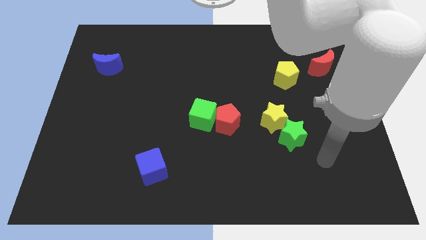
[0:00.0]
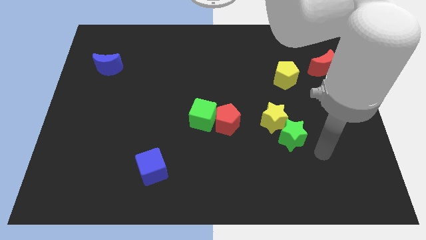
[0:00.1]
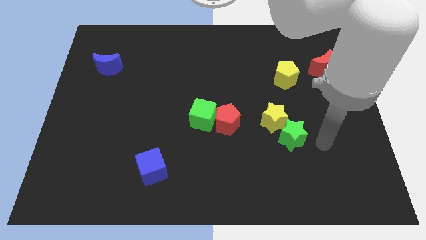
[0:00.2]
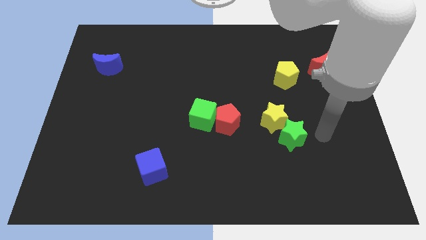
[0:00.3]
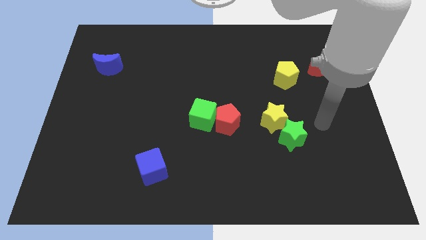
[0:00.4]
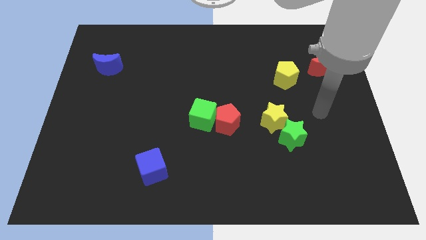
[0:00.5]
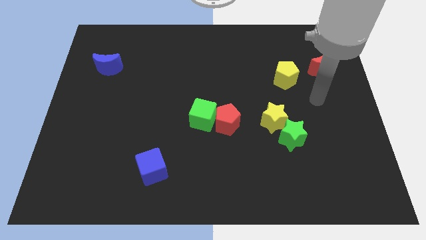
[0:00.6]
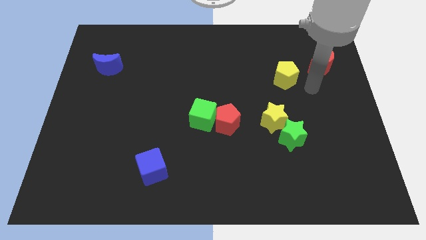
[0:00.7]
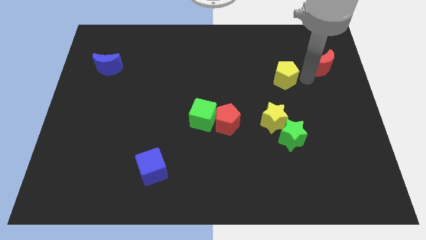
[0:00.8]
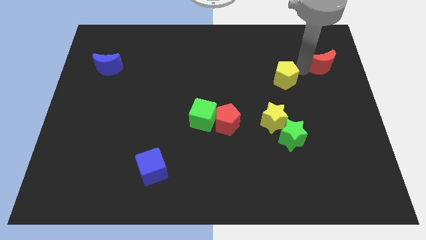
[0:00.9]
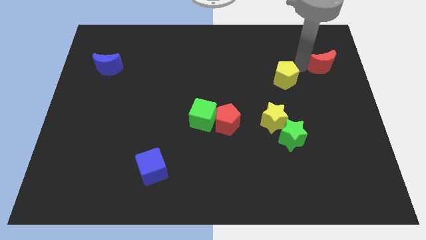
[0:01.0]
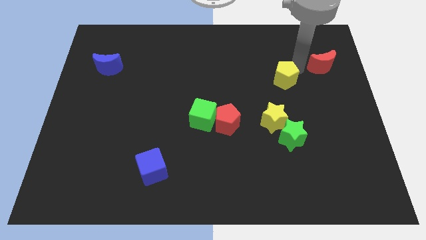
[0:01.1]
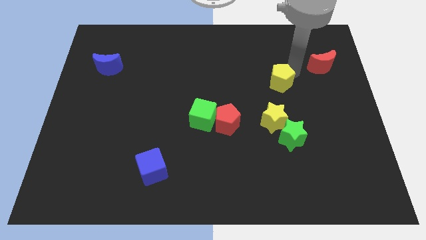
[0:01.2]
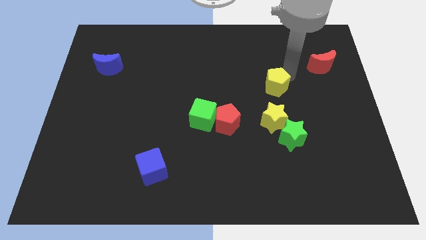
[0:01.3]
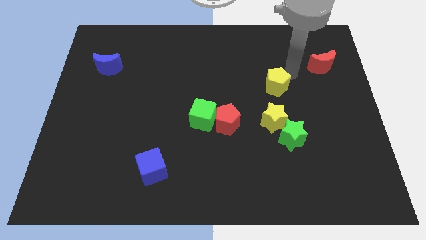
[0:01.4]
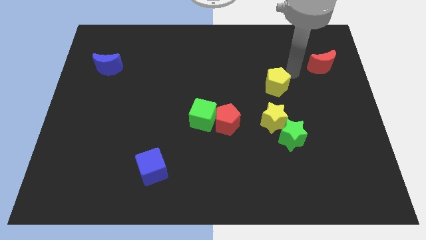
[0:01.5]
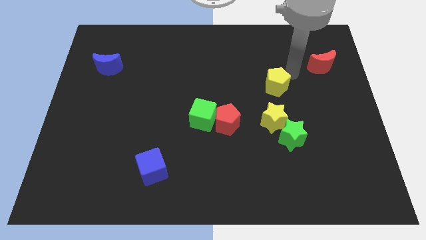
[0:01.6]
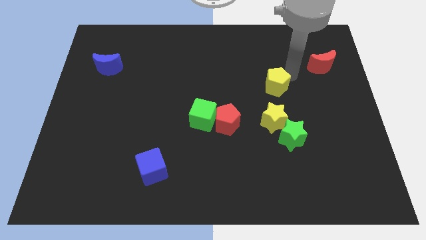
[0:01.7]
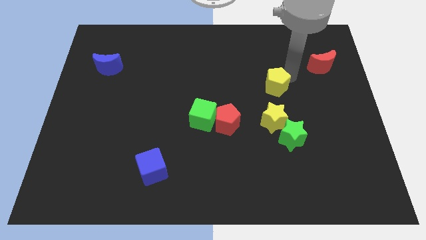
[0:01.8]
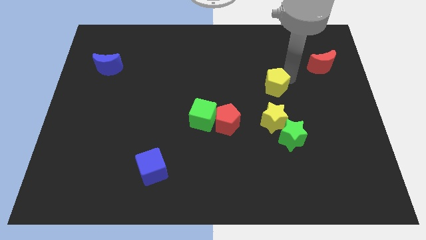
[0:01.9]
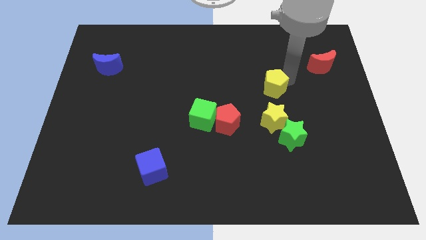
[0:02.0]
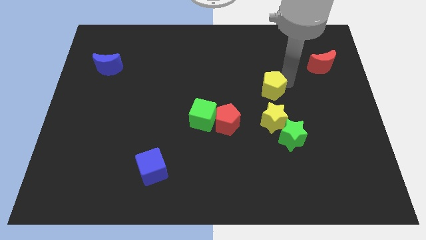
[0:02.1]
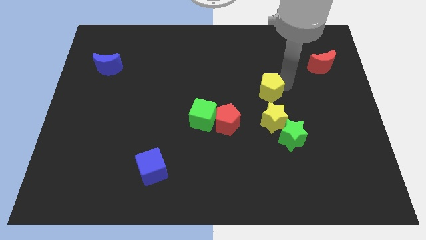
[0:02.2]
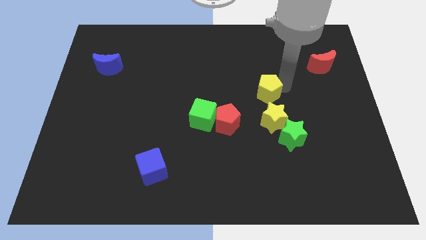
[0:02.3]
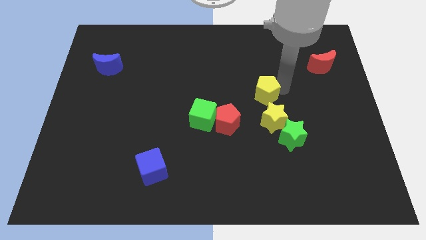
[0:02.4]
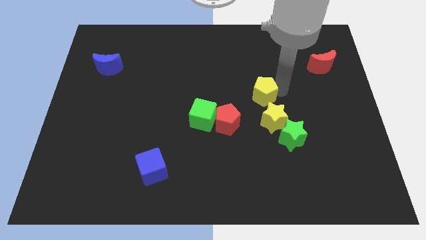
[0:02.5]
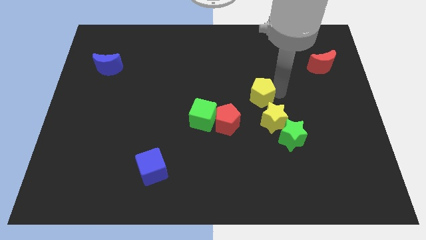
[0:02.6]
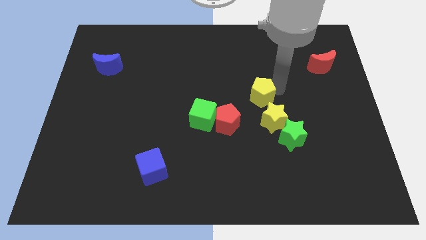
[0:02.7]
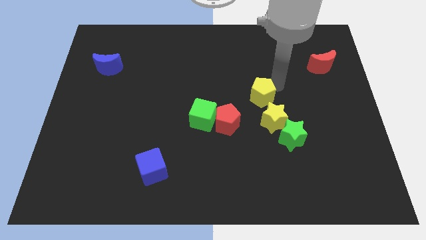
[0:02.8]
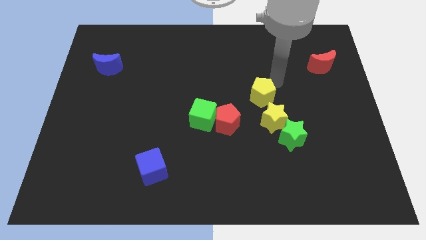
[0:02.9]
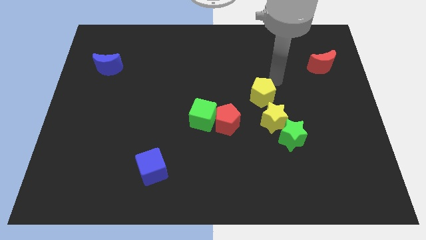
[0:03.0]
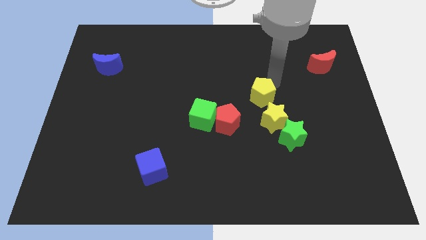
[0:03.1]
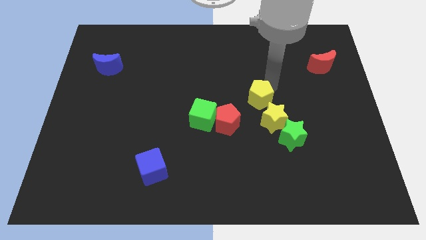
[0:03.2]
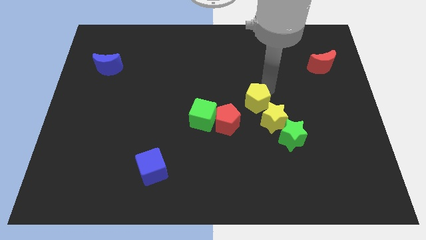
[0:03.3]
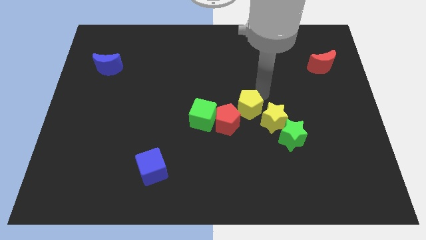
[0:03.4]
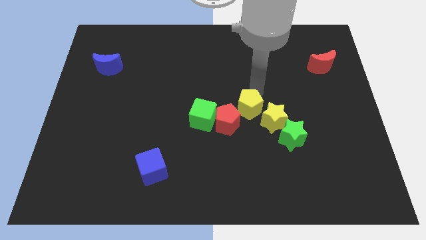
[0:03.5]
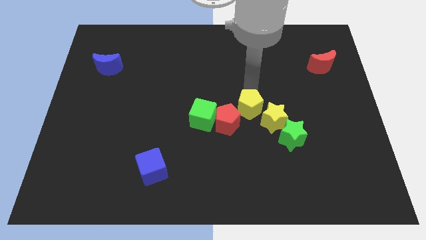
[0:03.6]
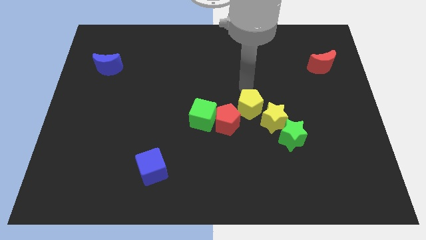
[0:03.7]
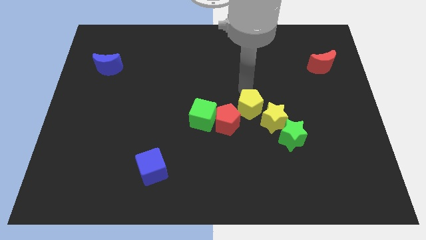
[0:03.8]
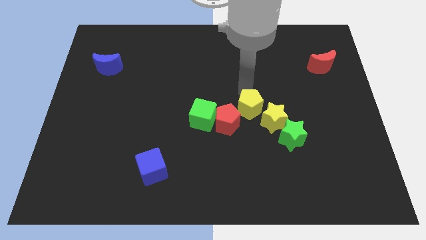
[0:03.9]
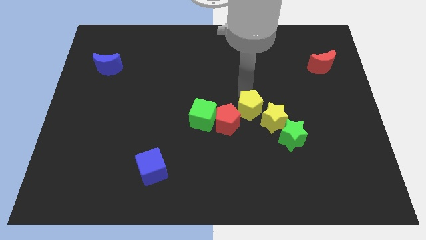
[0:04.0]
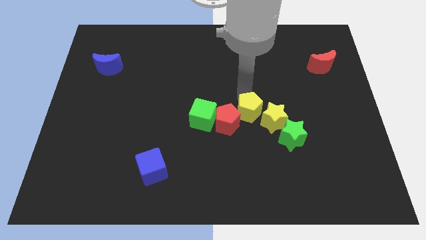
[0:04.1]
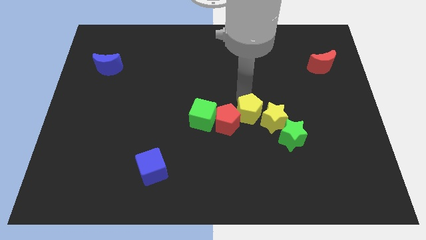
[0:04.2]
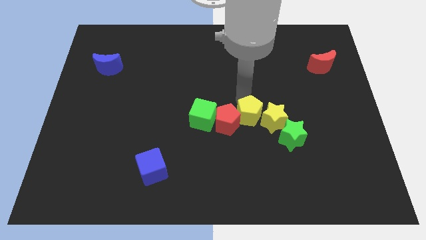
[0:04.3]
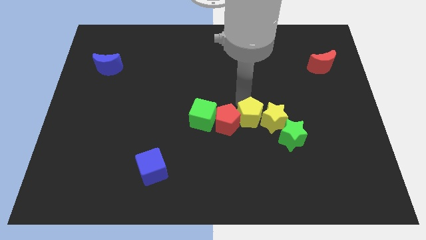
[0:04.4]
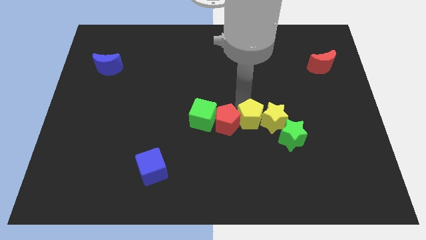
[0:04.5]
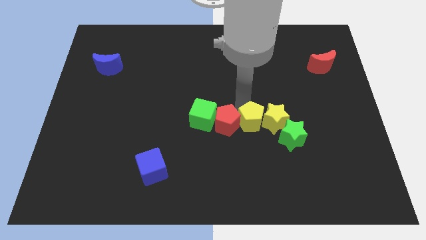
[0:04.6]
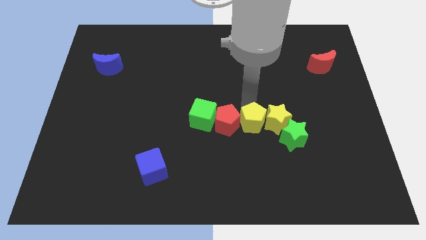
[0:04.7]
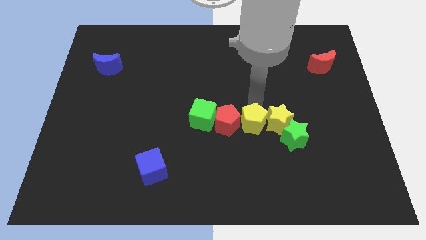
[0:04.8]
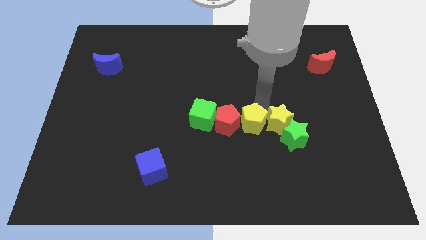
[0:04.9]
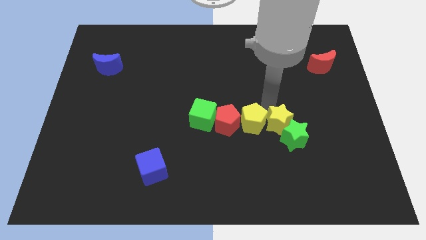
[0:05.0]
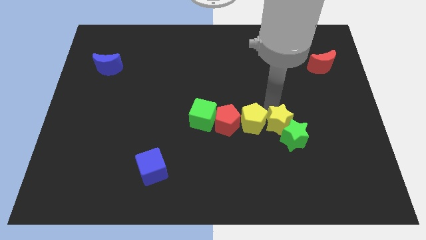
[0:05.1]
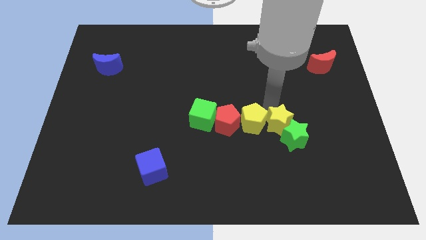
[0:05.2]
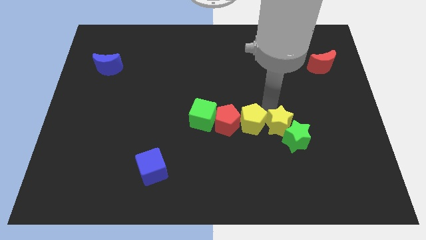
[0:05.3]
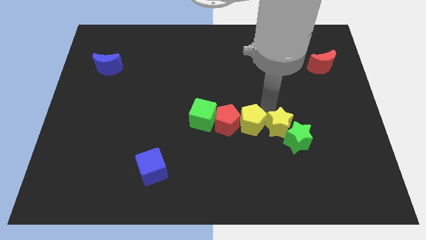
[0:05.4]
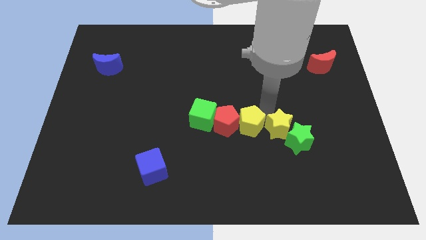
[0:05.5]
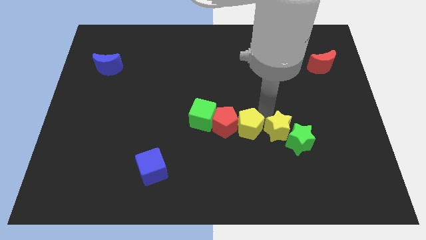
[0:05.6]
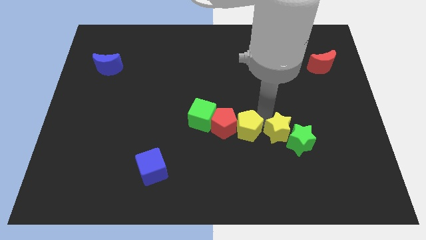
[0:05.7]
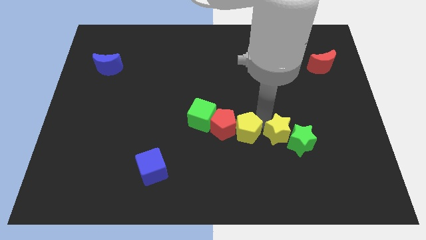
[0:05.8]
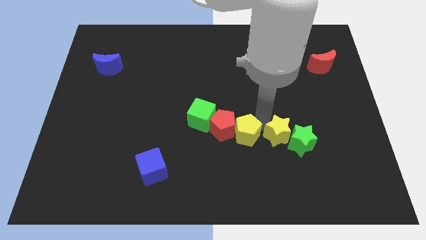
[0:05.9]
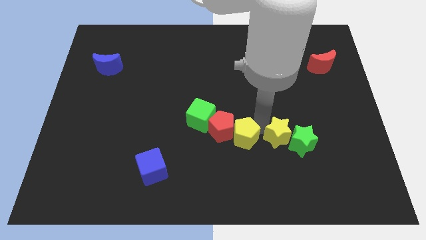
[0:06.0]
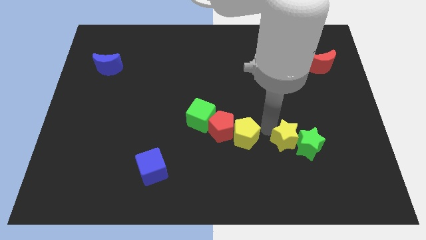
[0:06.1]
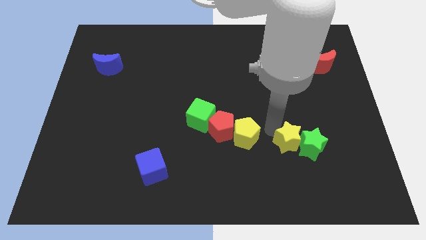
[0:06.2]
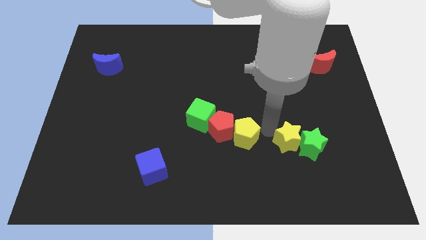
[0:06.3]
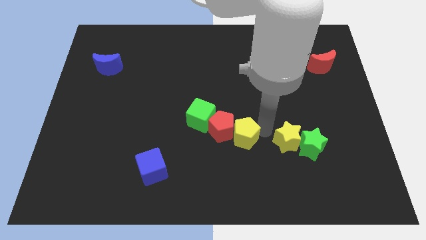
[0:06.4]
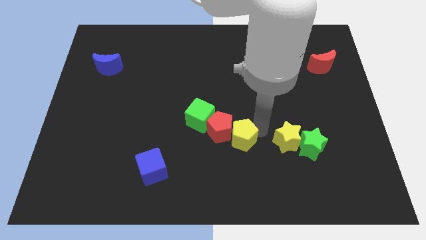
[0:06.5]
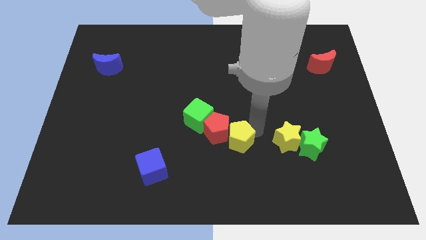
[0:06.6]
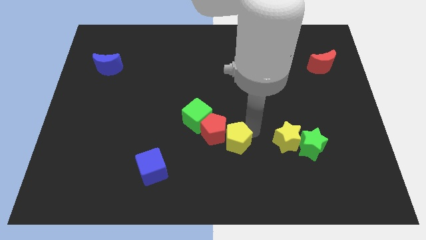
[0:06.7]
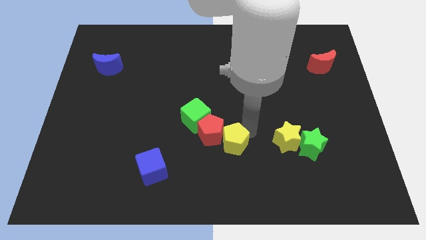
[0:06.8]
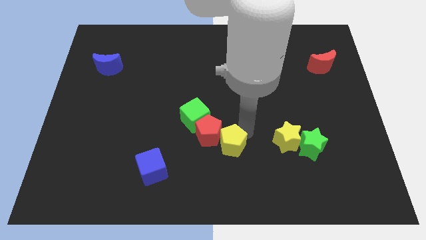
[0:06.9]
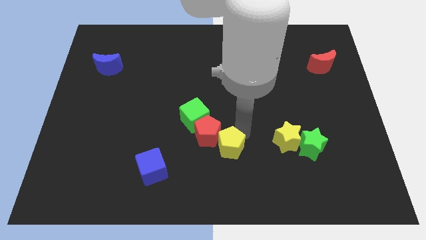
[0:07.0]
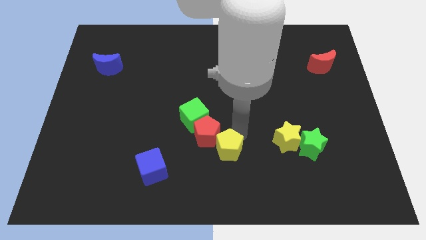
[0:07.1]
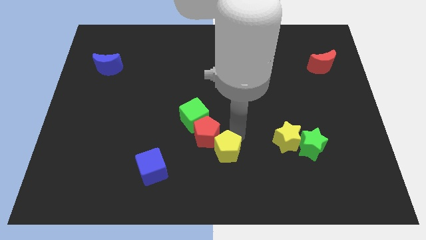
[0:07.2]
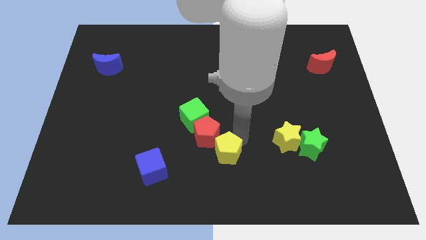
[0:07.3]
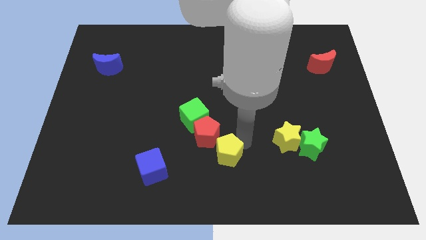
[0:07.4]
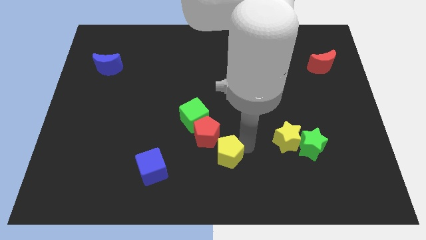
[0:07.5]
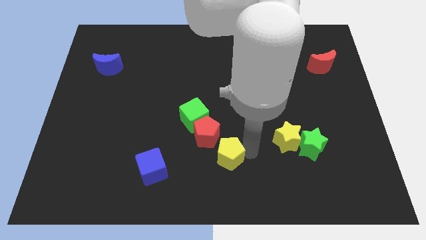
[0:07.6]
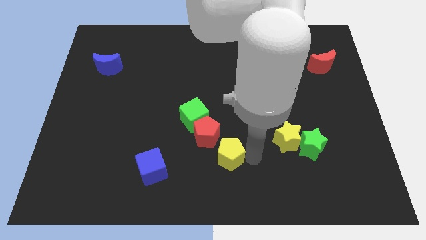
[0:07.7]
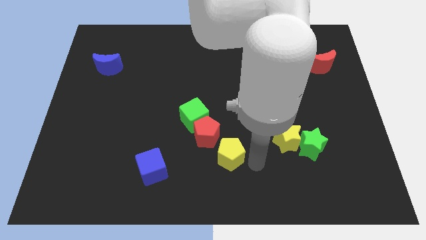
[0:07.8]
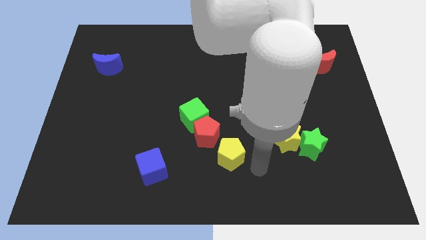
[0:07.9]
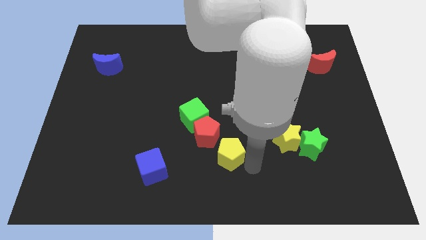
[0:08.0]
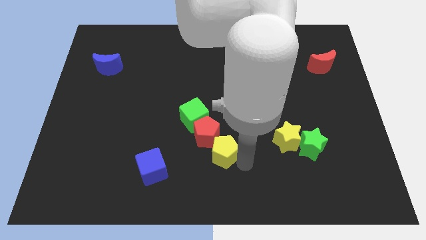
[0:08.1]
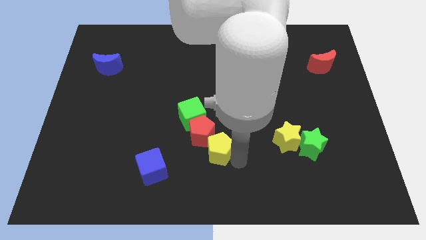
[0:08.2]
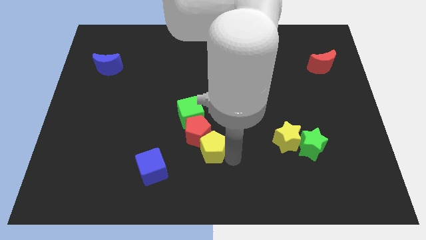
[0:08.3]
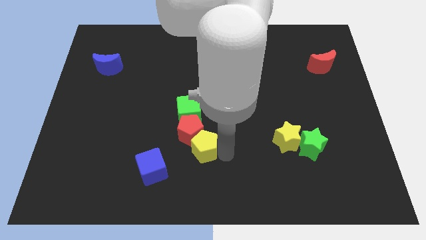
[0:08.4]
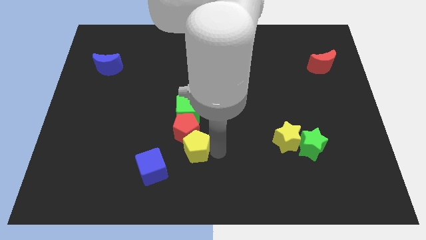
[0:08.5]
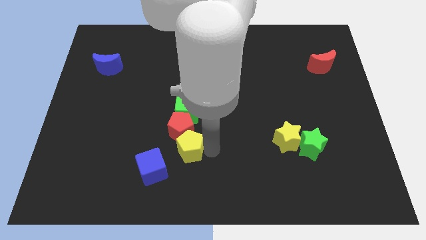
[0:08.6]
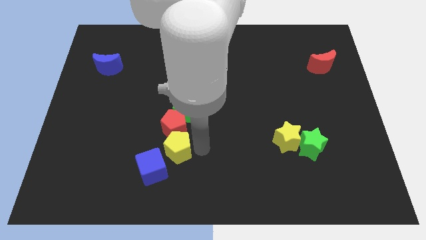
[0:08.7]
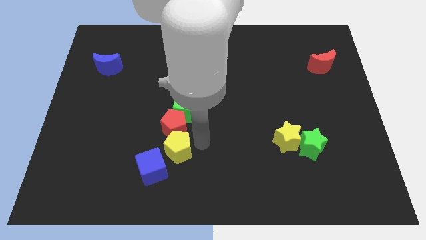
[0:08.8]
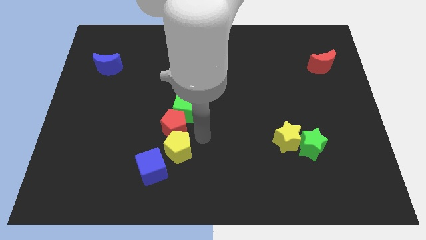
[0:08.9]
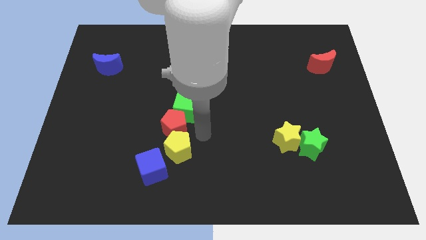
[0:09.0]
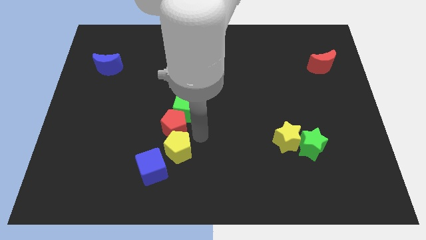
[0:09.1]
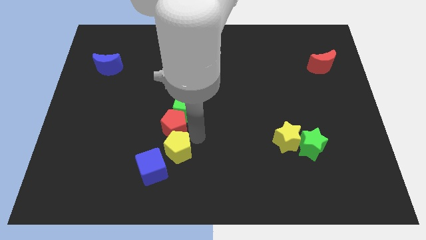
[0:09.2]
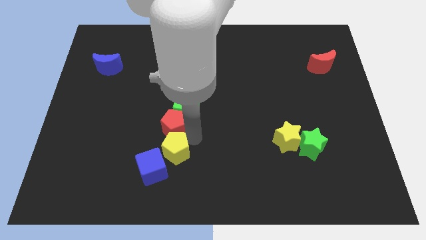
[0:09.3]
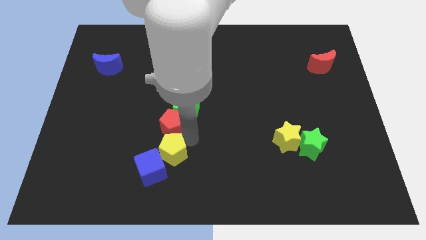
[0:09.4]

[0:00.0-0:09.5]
push the yellow pentagon close to the blue cube
